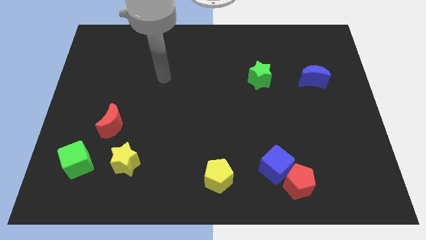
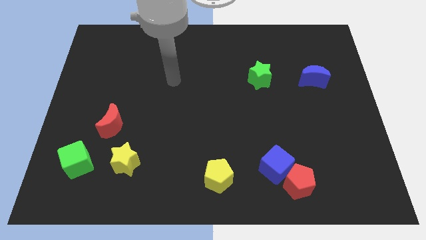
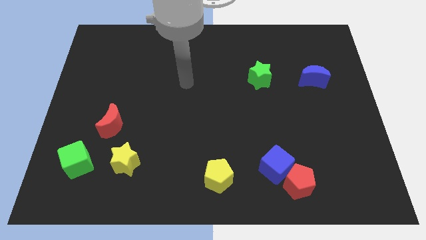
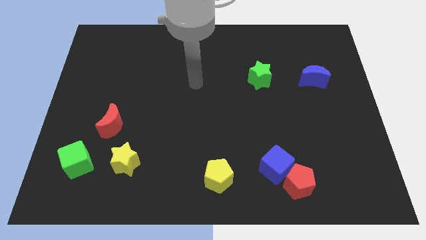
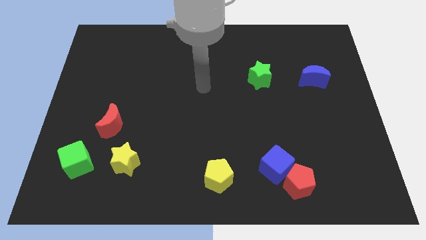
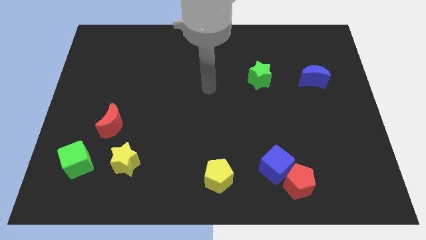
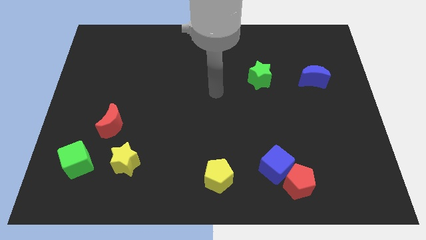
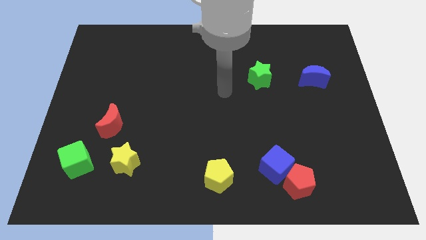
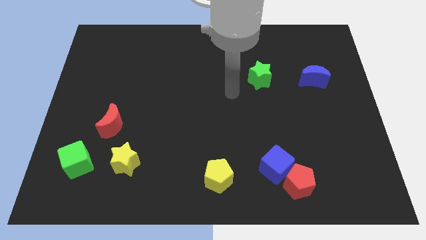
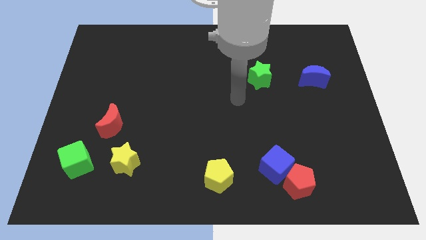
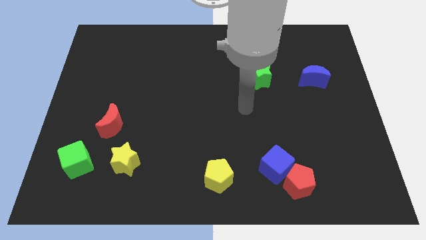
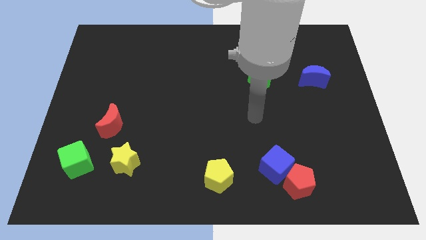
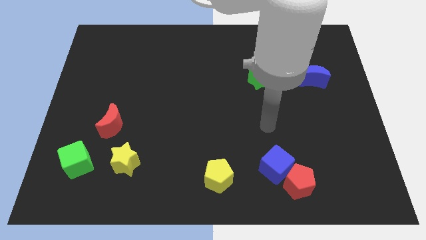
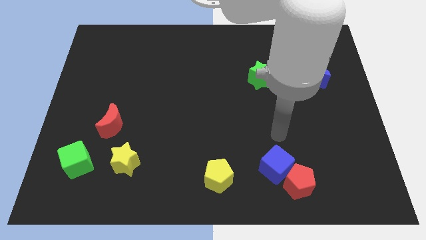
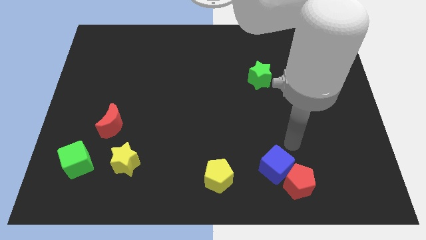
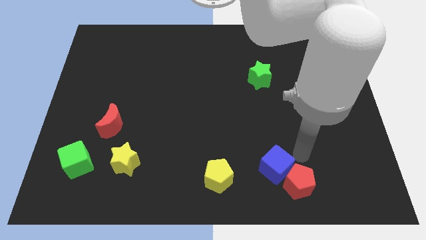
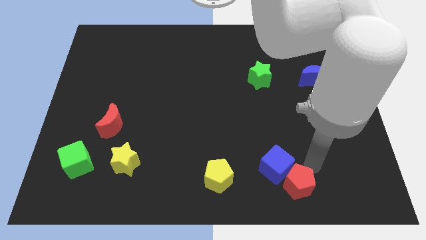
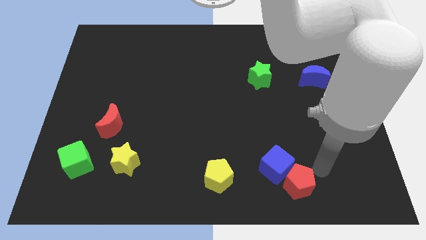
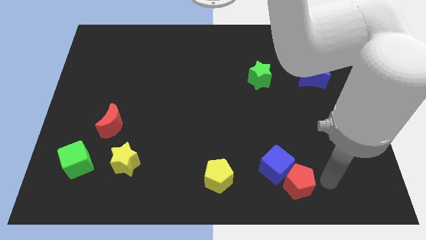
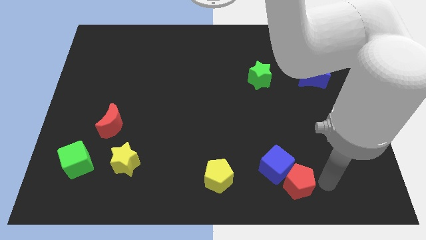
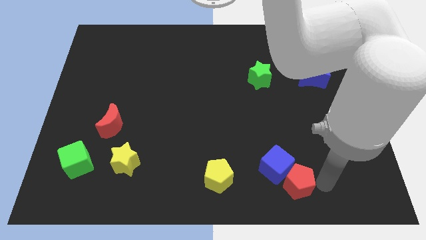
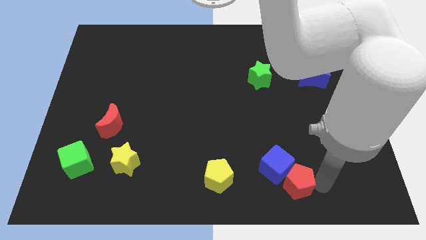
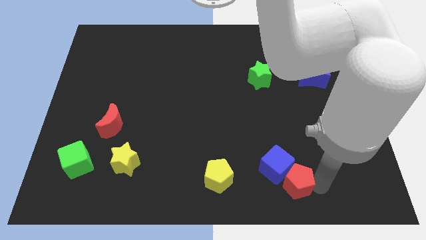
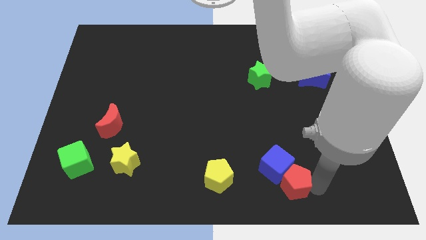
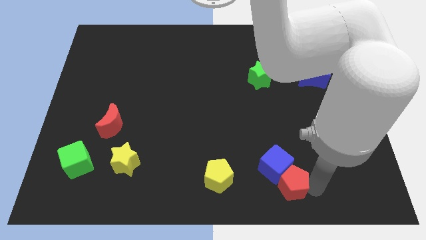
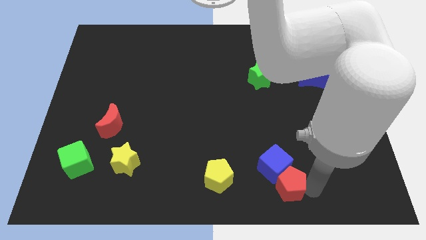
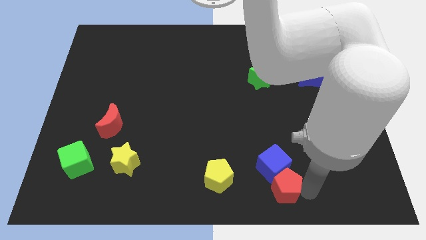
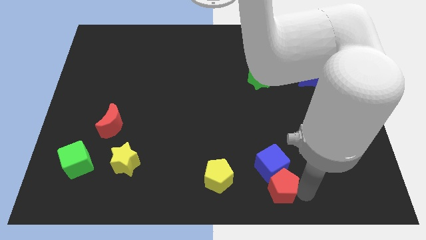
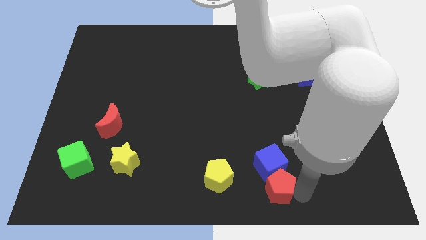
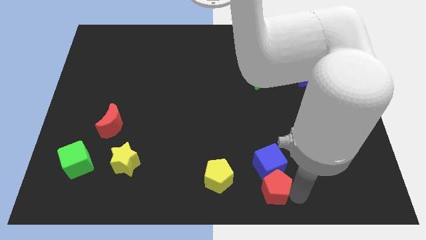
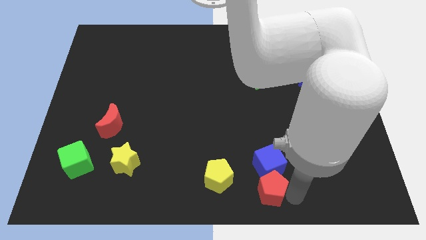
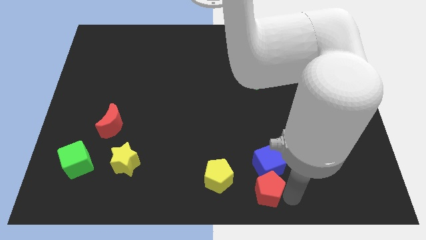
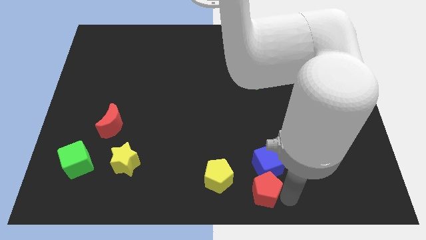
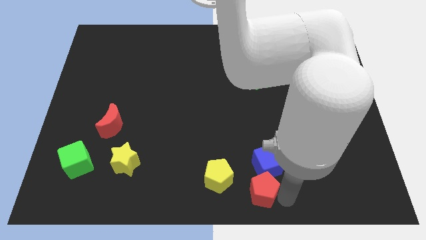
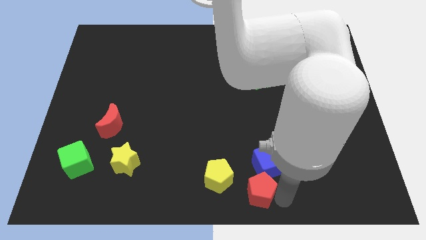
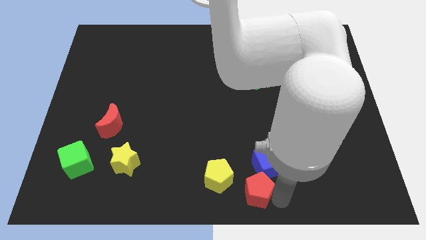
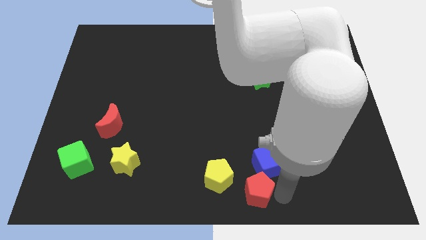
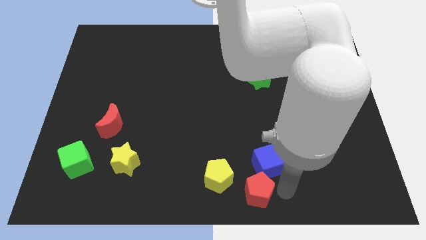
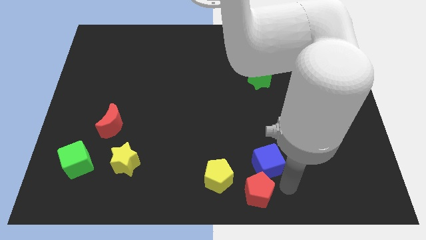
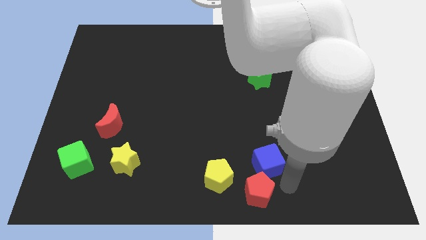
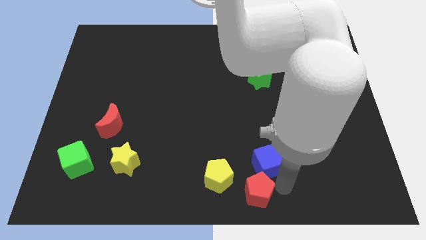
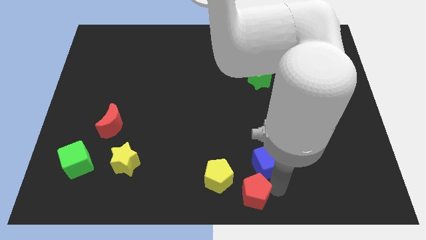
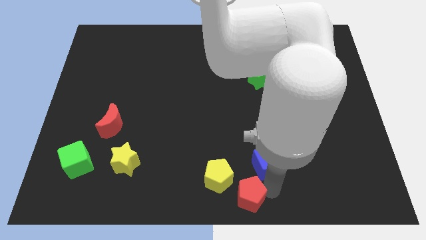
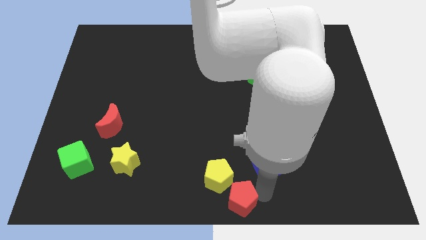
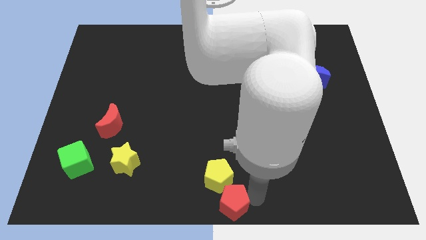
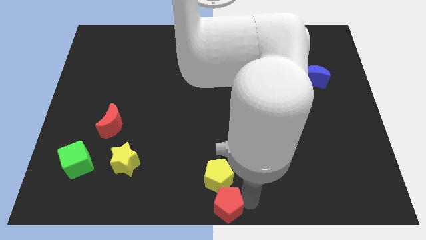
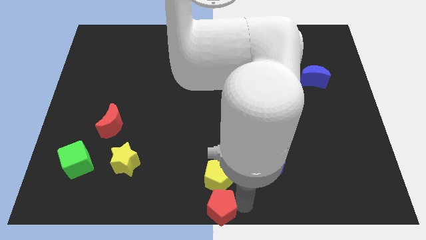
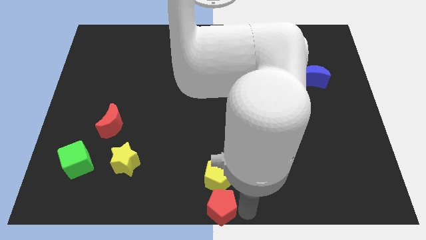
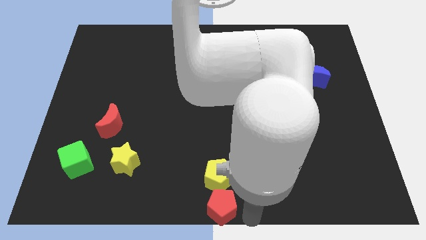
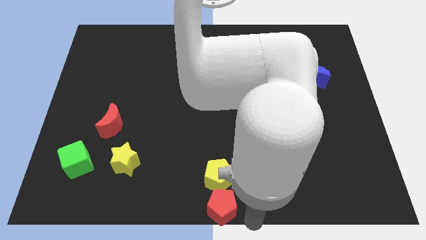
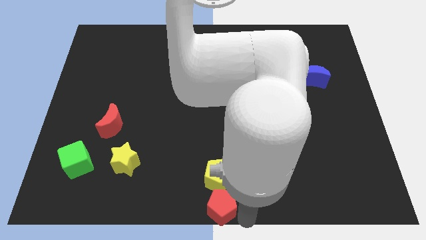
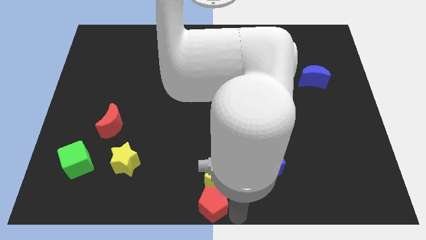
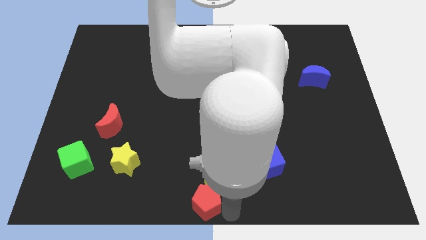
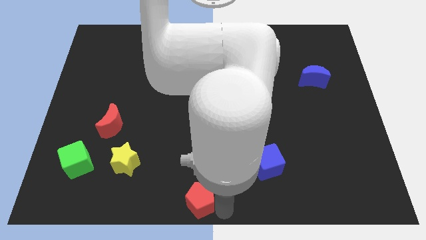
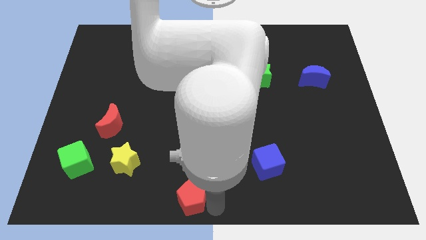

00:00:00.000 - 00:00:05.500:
move the red pentagon to the left

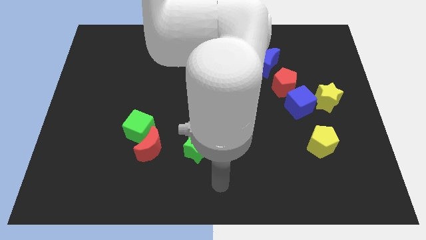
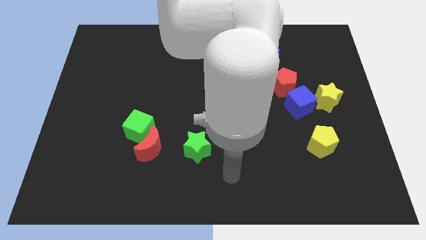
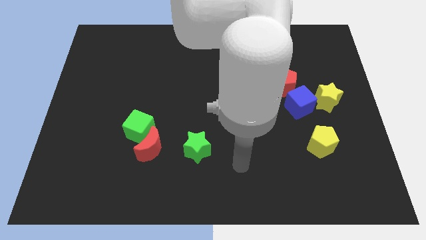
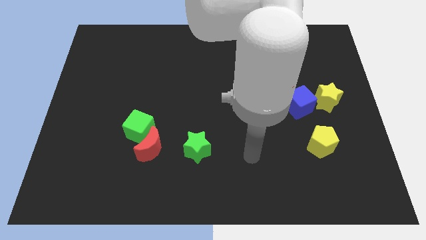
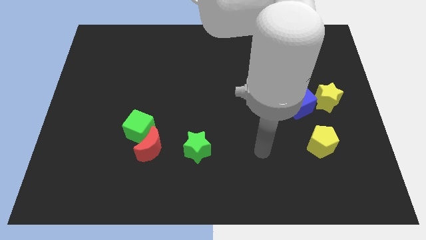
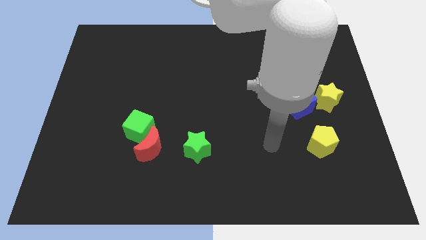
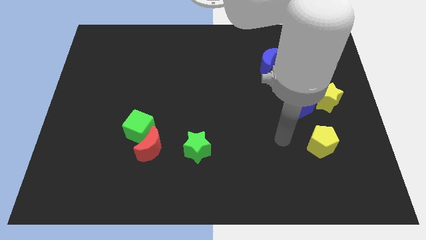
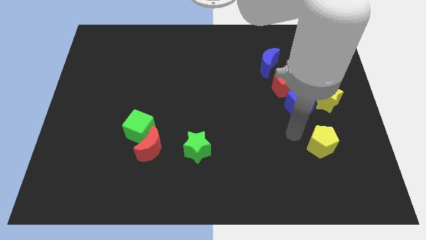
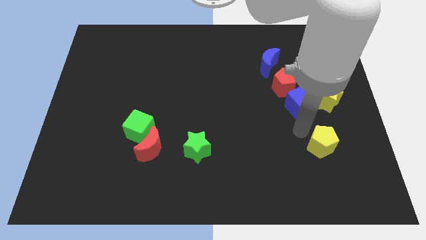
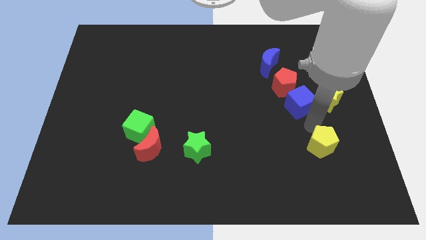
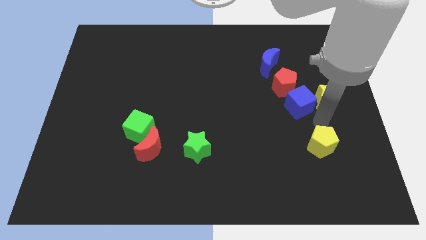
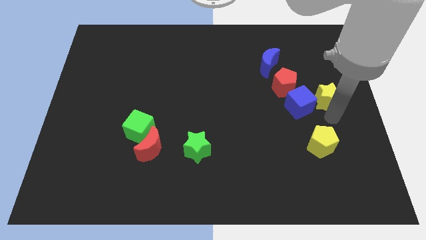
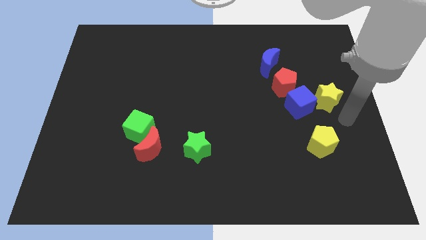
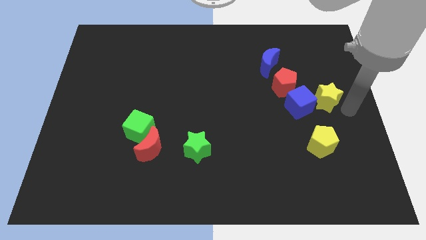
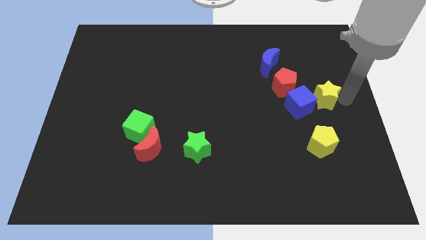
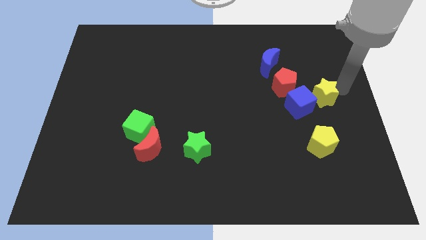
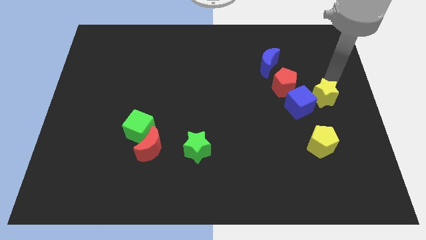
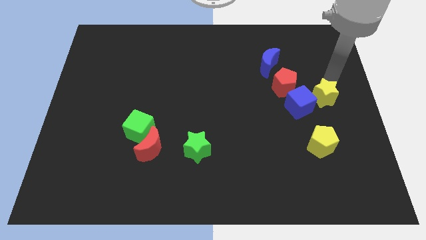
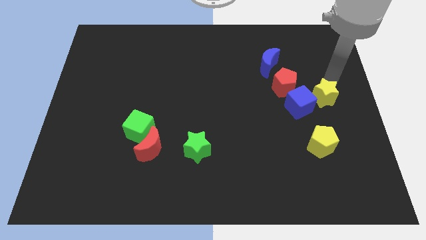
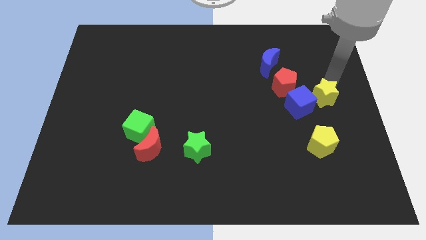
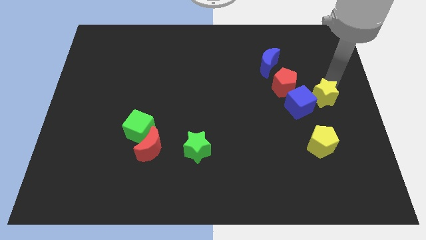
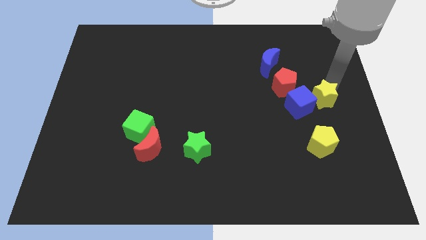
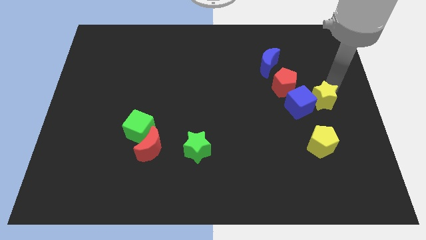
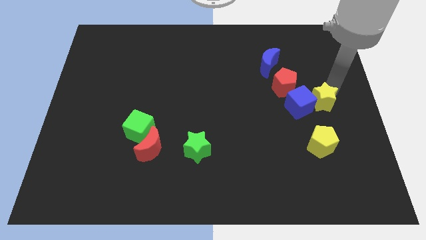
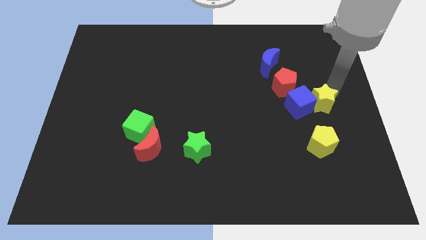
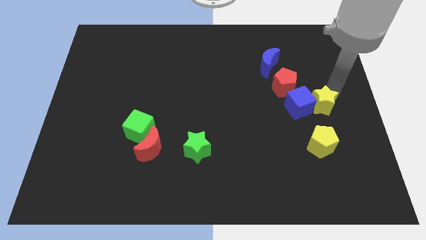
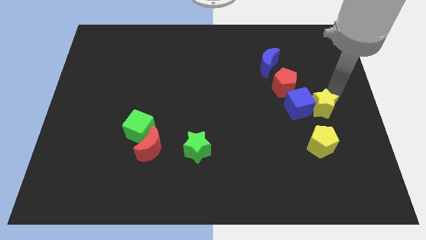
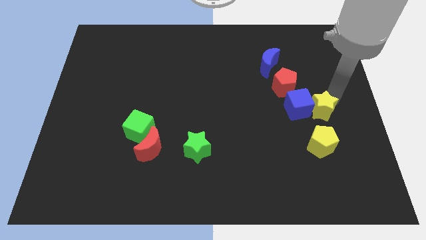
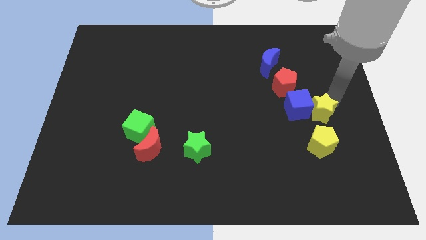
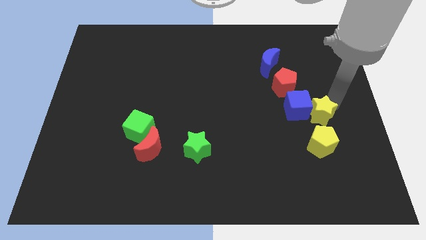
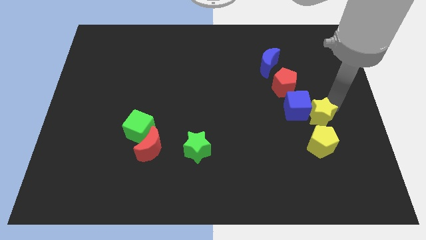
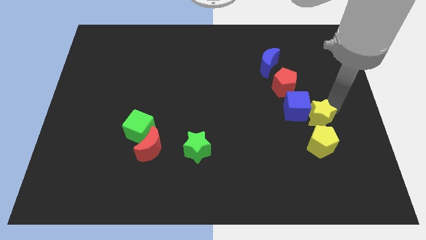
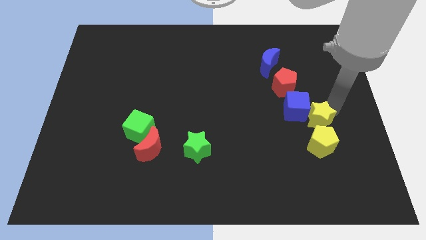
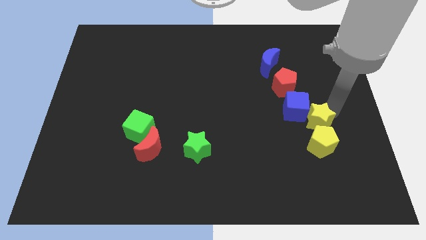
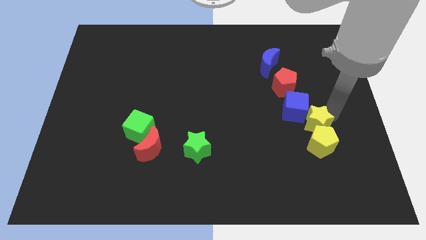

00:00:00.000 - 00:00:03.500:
push the yellow star downwards and to the left diagonally a little bit
